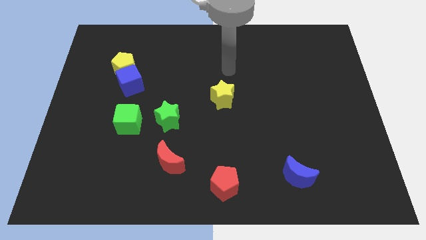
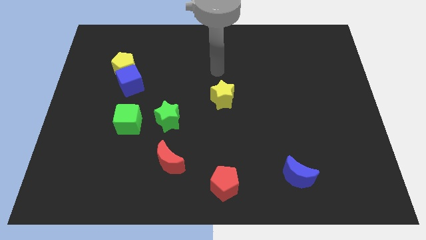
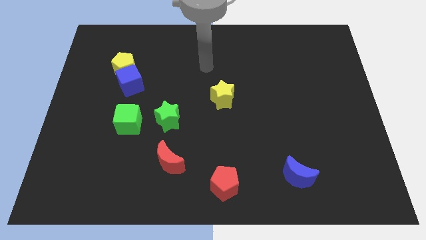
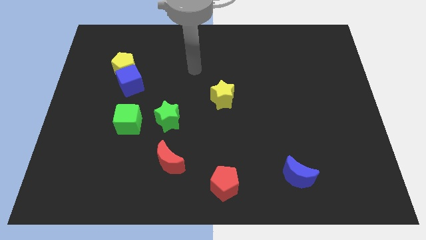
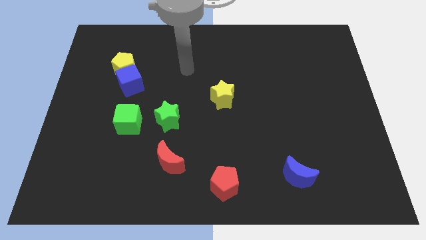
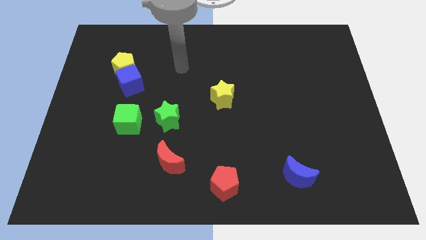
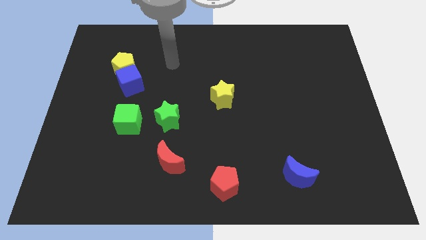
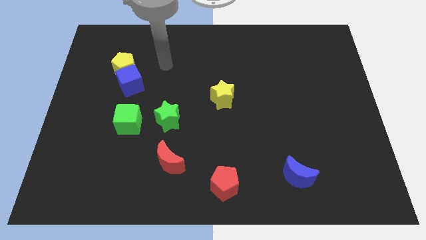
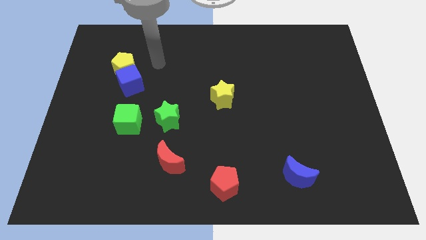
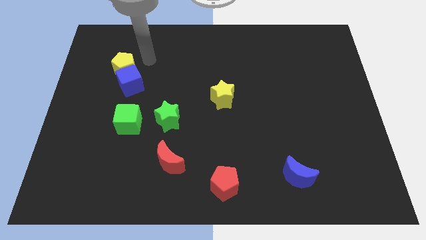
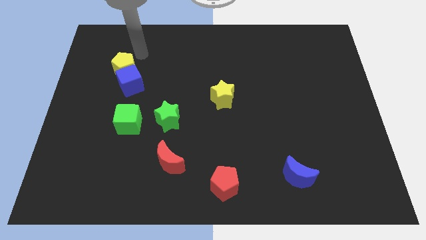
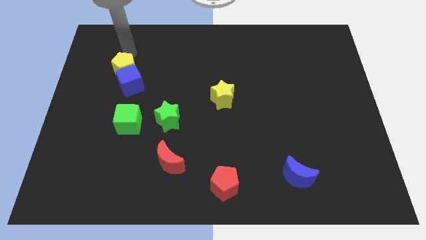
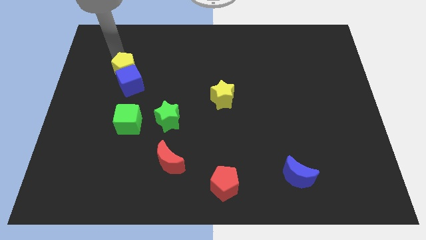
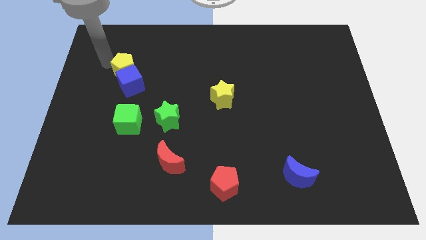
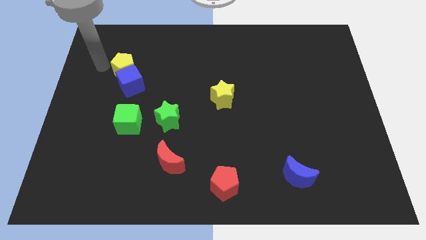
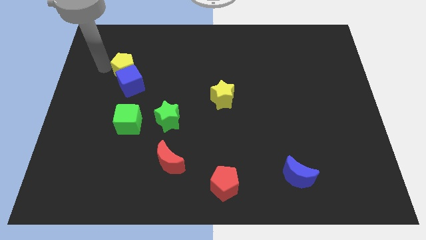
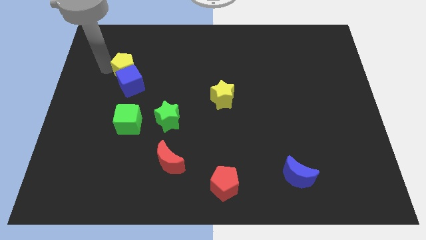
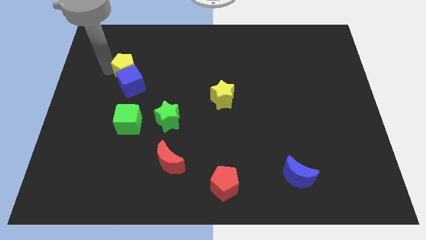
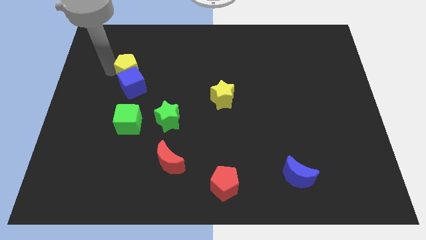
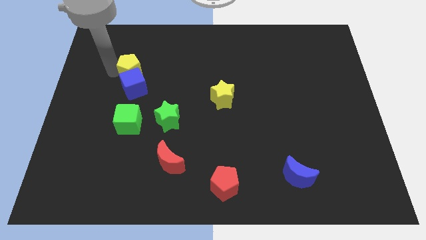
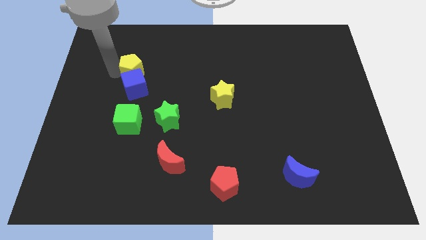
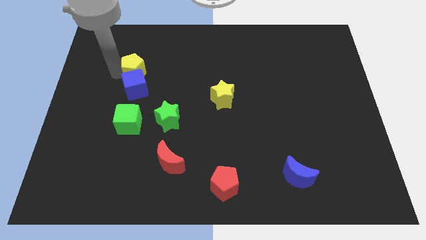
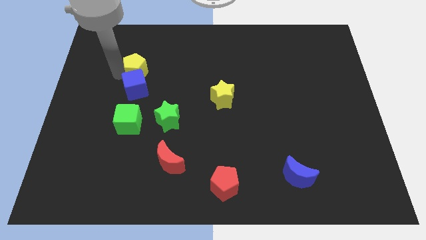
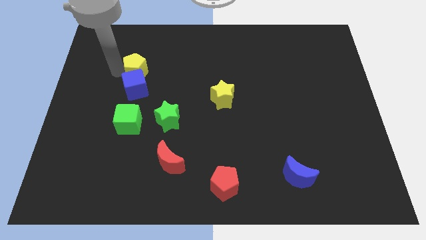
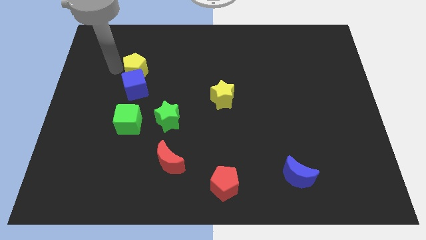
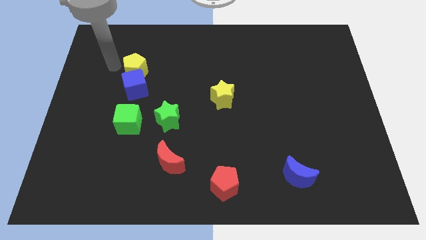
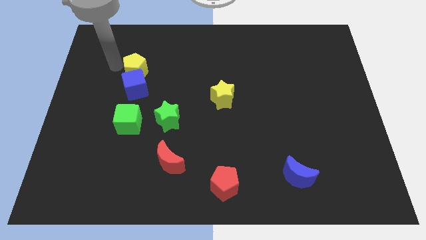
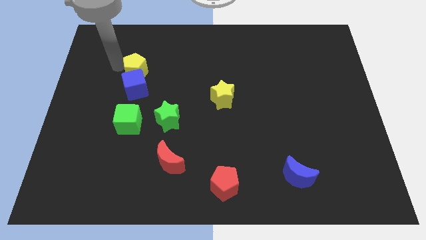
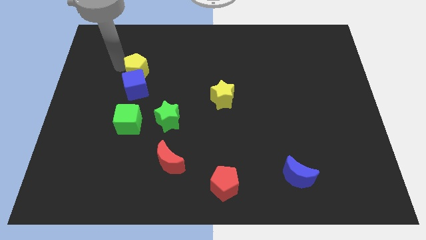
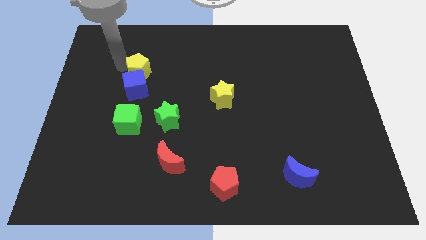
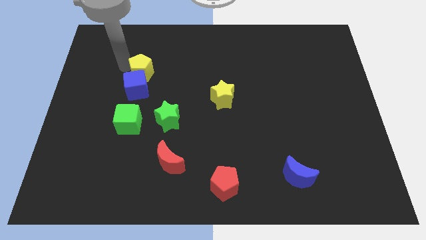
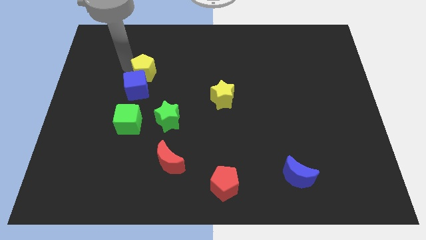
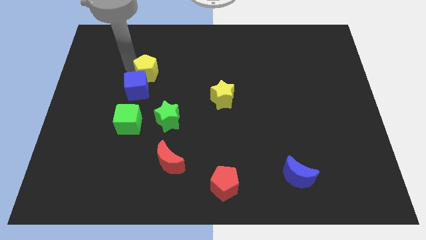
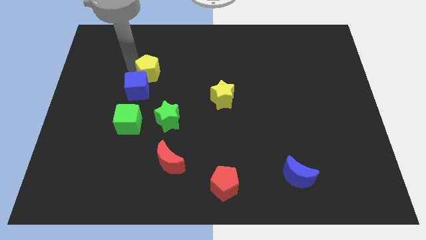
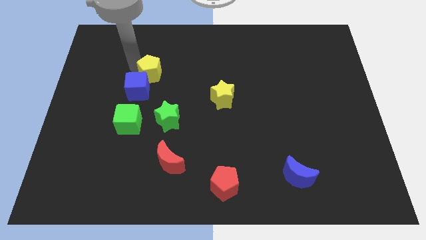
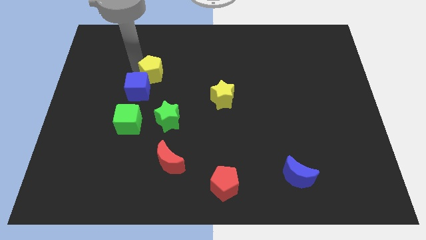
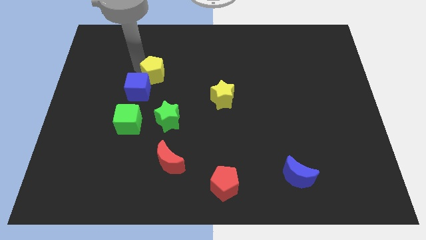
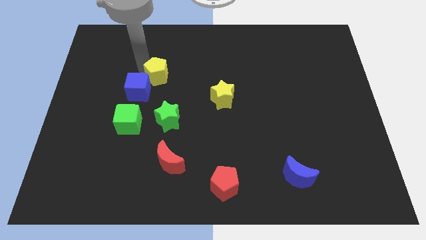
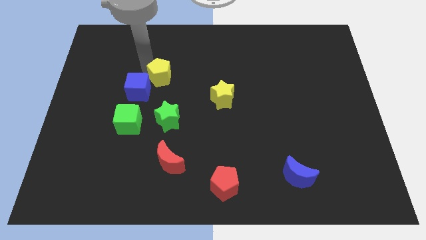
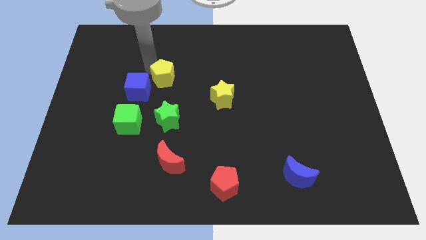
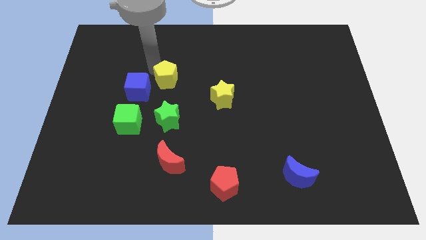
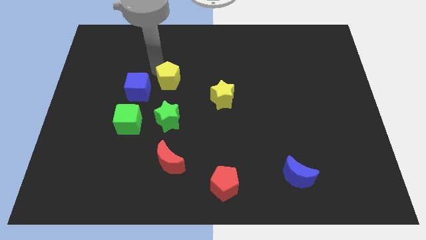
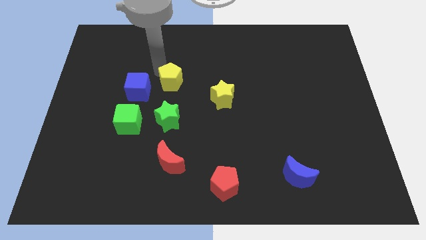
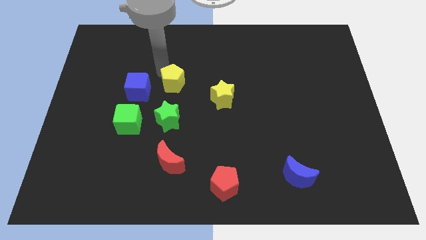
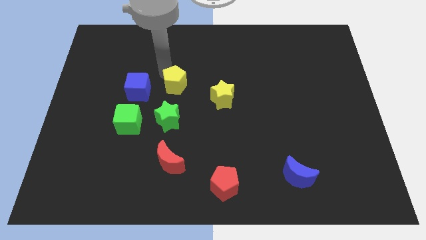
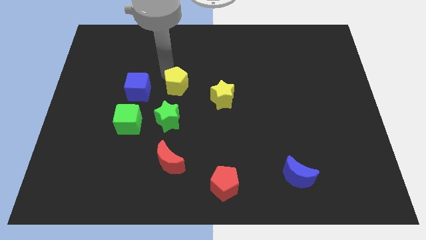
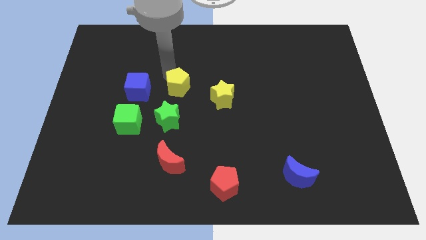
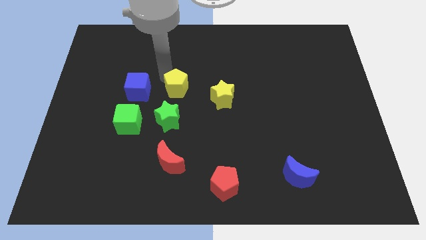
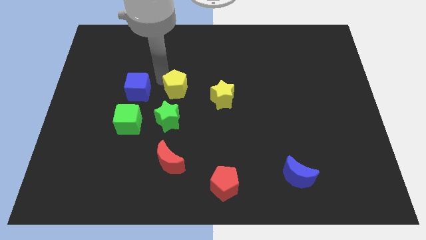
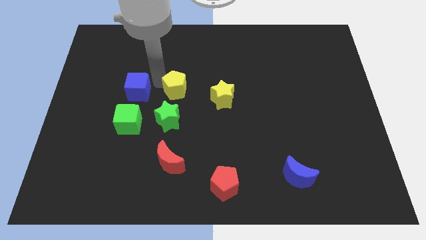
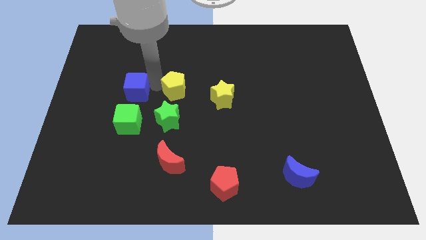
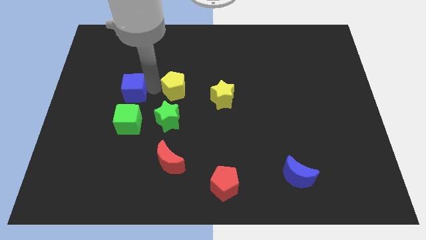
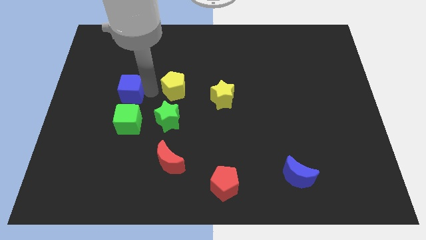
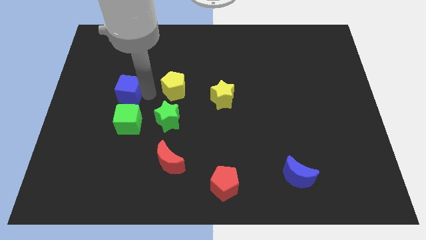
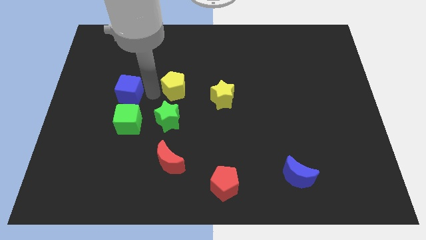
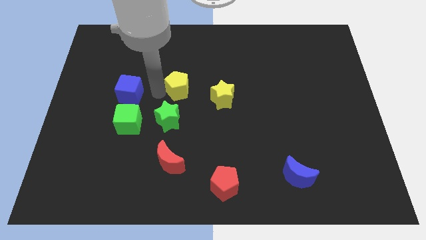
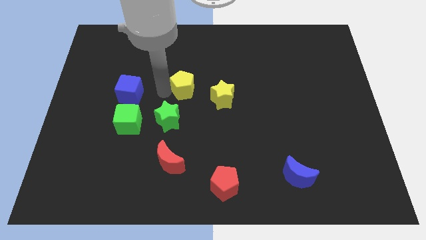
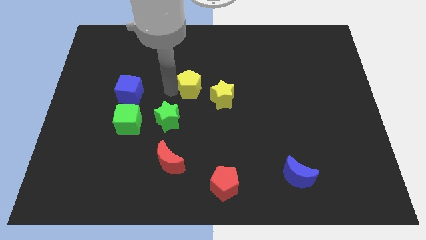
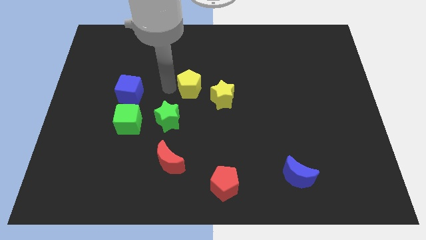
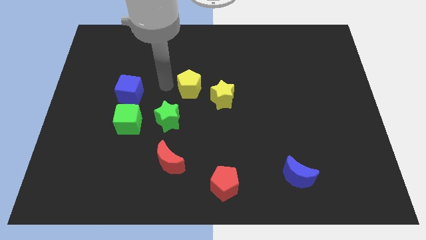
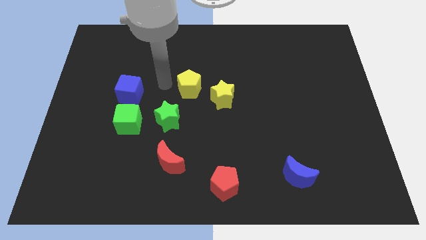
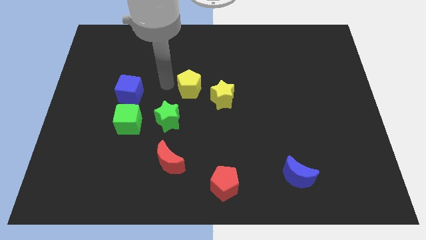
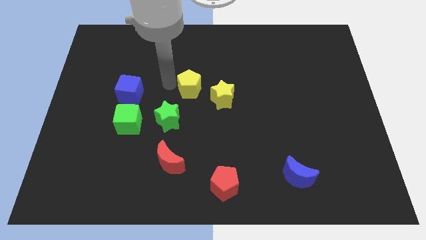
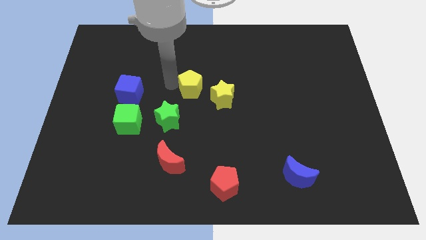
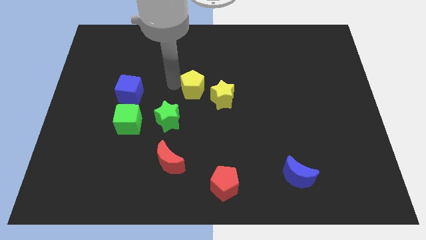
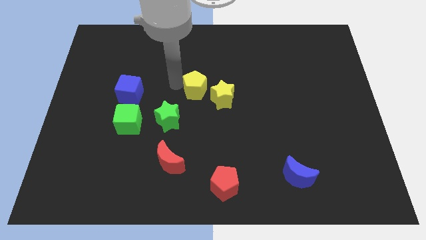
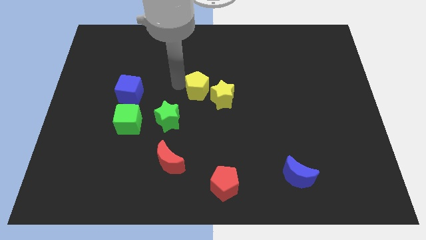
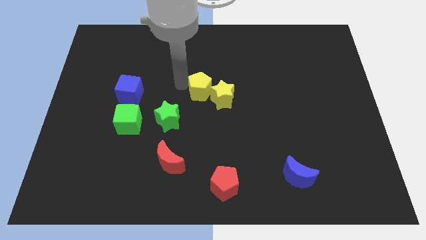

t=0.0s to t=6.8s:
move the yellow pentagon to the yellow star

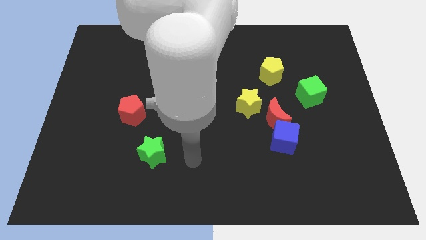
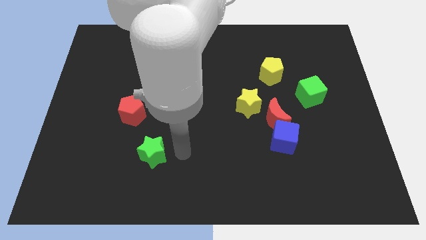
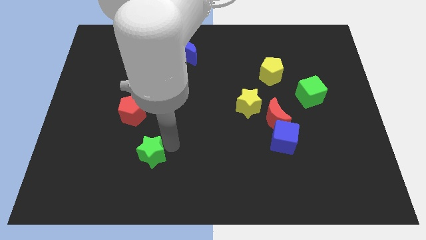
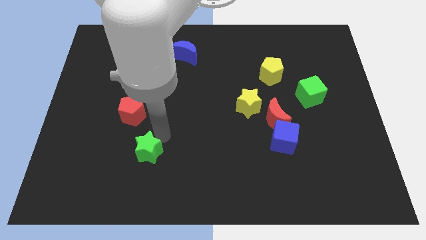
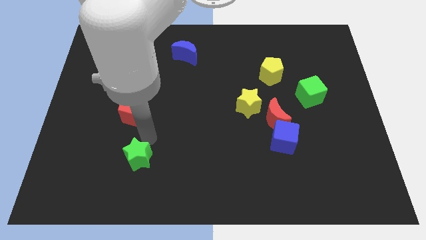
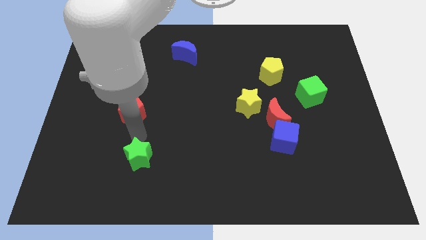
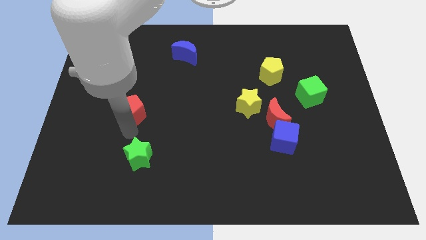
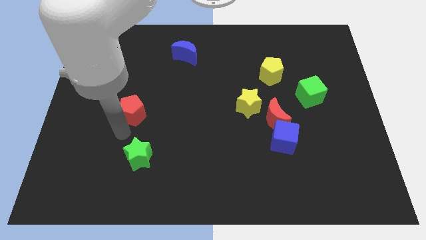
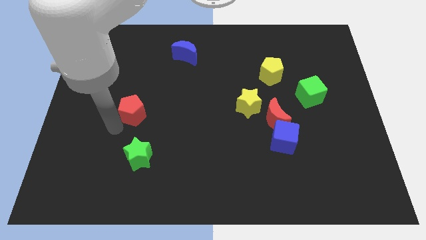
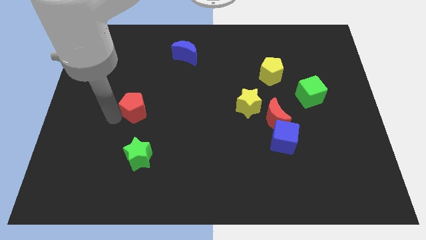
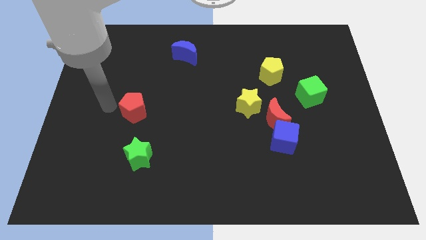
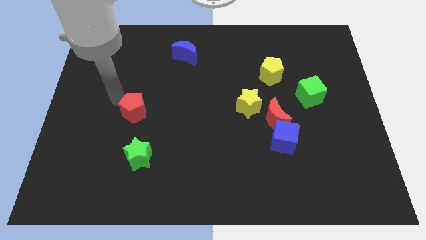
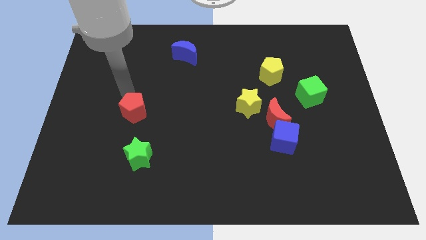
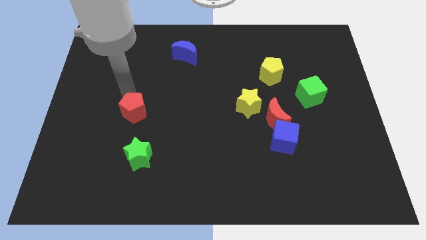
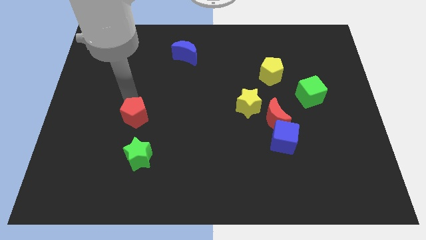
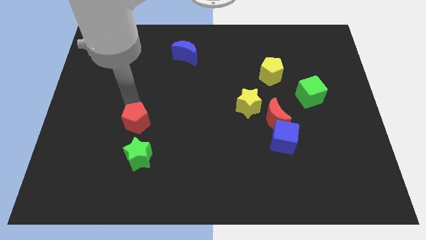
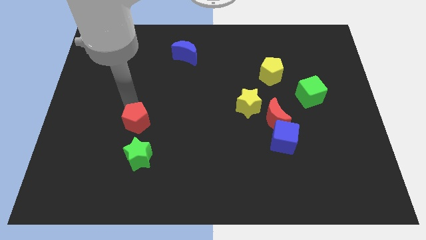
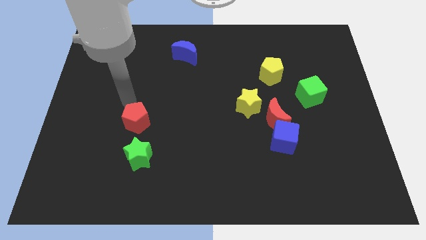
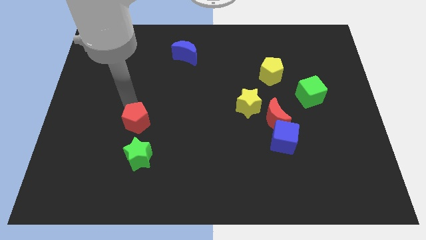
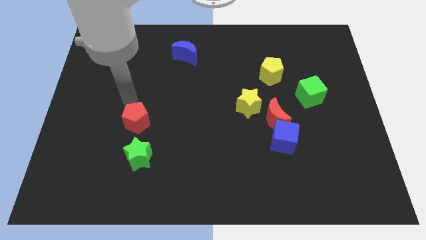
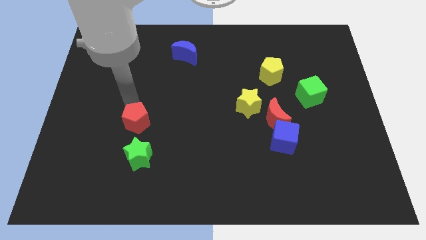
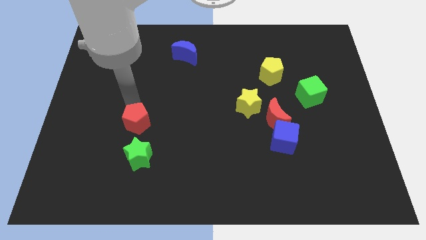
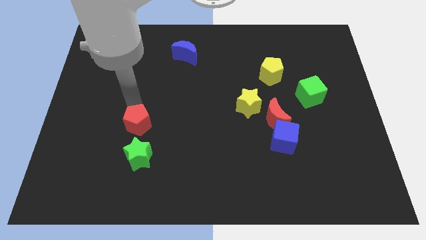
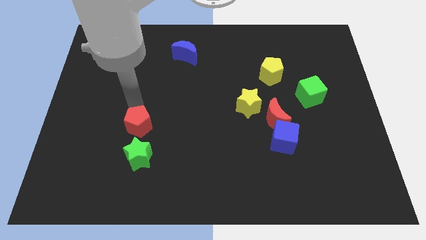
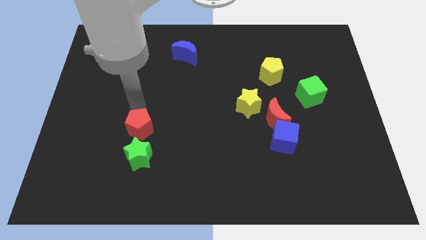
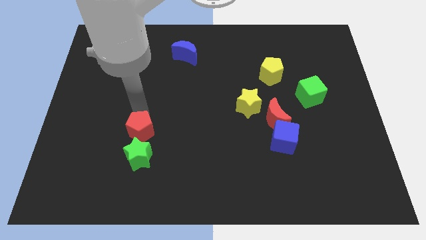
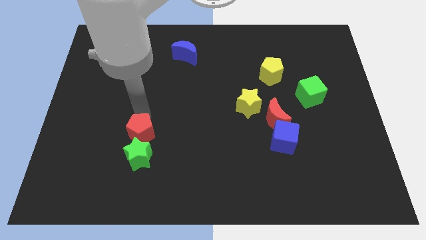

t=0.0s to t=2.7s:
slide the red pentagon close to the green star
